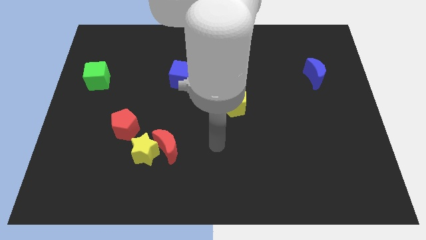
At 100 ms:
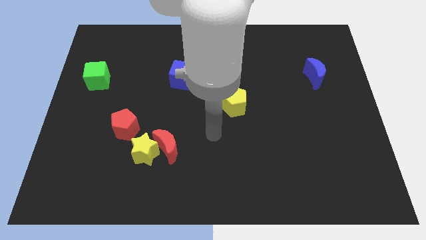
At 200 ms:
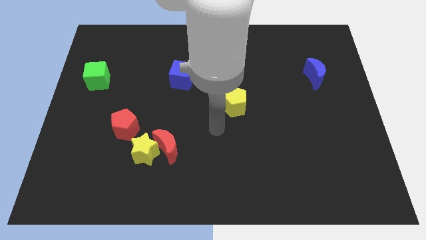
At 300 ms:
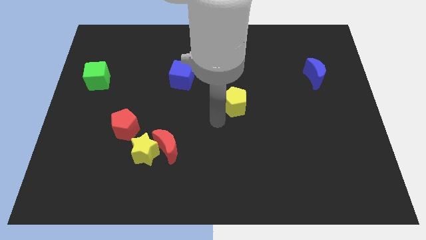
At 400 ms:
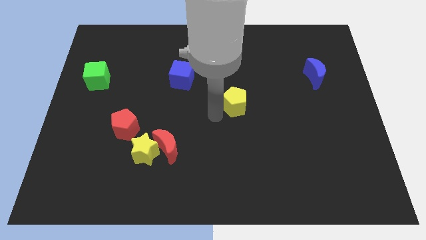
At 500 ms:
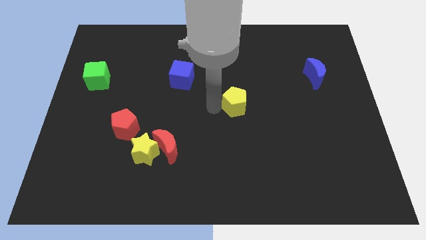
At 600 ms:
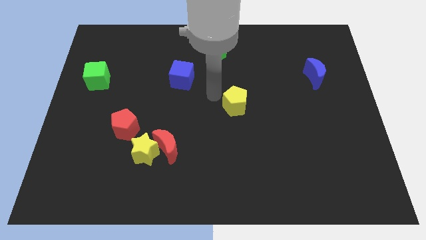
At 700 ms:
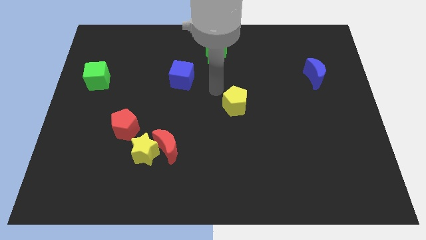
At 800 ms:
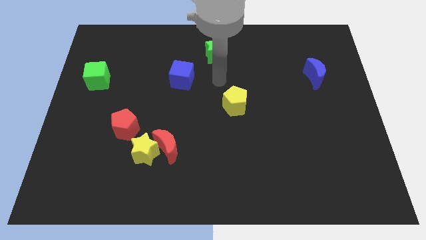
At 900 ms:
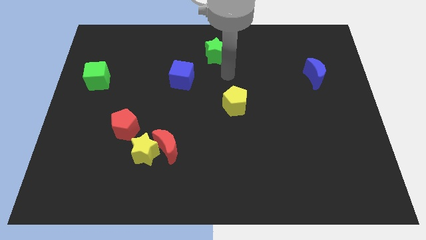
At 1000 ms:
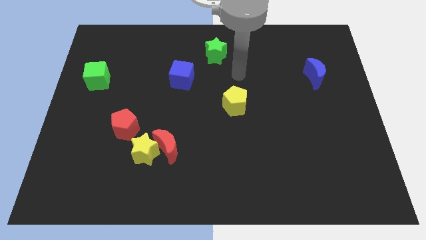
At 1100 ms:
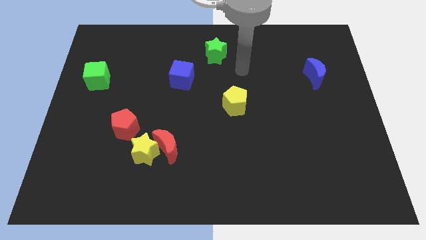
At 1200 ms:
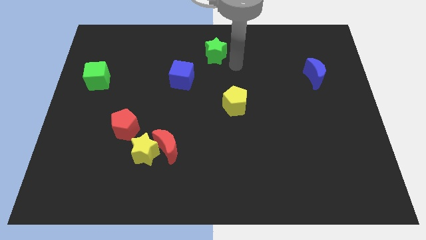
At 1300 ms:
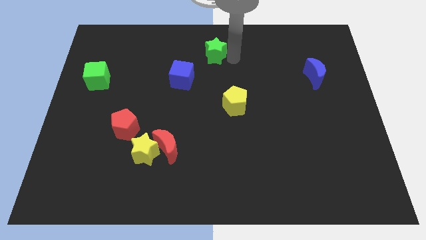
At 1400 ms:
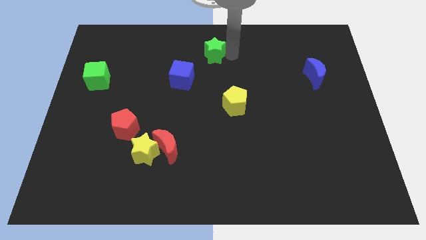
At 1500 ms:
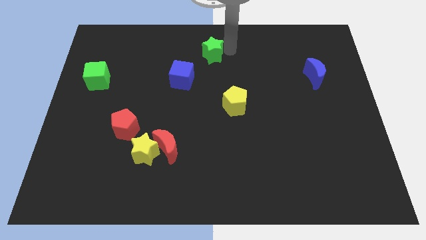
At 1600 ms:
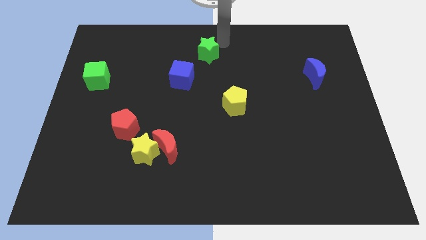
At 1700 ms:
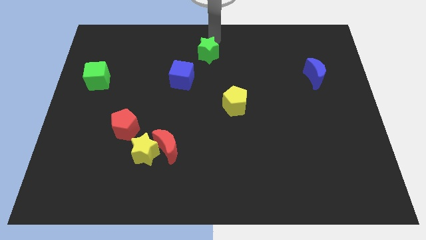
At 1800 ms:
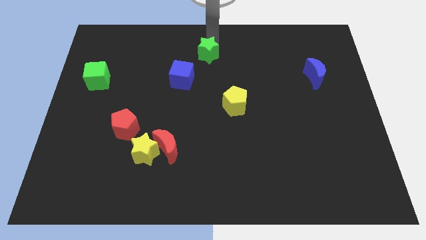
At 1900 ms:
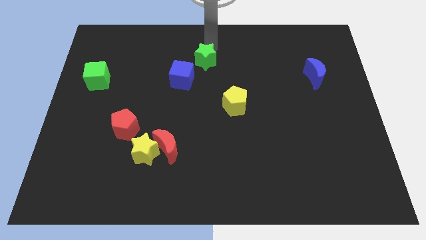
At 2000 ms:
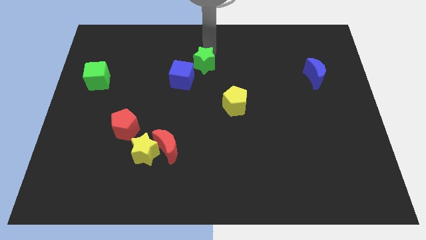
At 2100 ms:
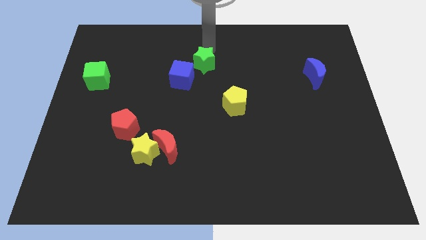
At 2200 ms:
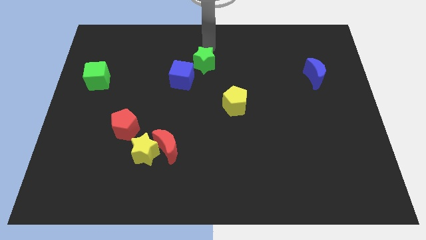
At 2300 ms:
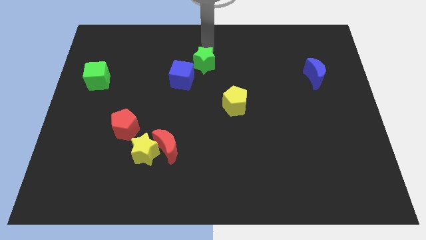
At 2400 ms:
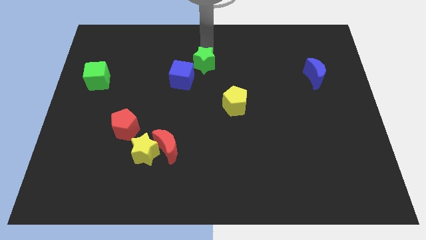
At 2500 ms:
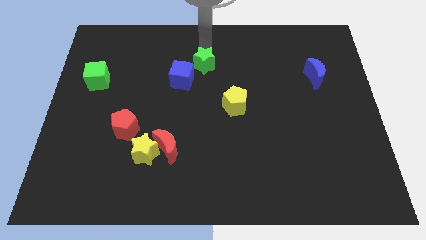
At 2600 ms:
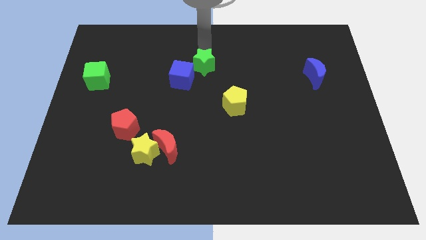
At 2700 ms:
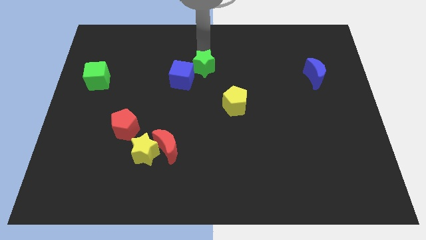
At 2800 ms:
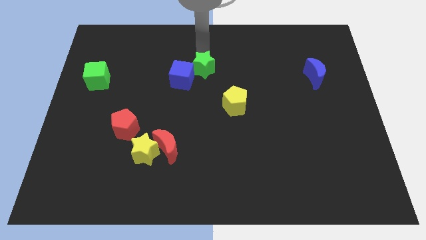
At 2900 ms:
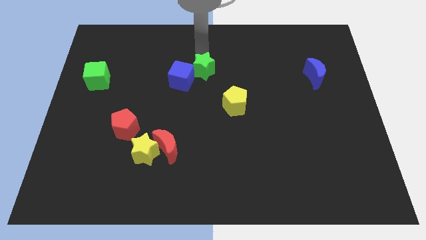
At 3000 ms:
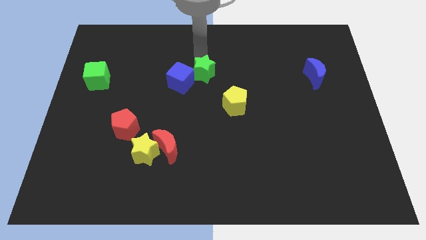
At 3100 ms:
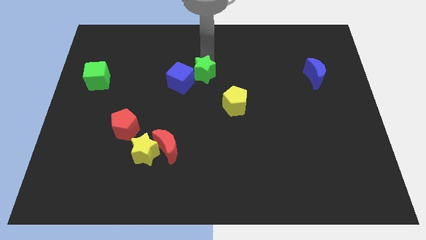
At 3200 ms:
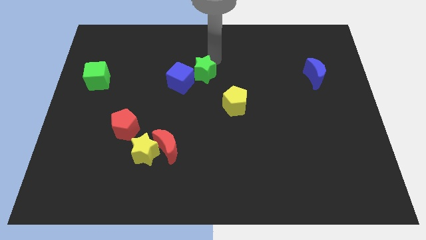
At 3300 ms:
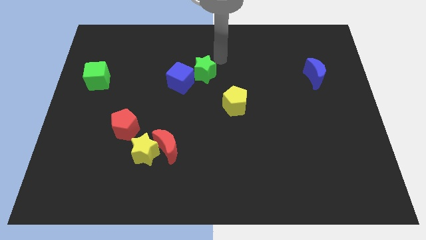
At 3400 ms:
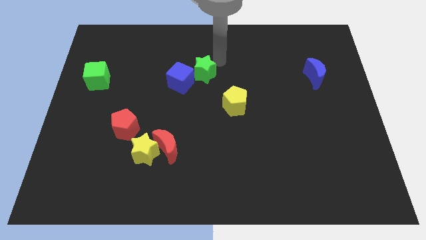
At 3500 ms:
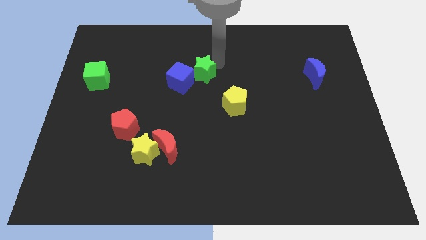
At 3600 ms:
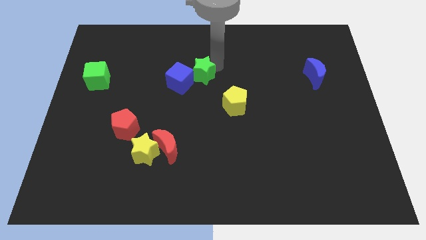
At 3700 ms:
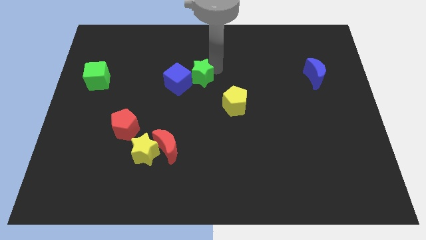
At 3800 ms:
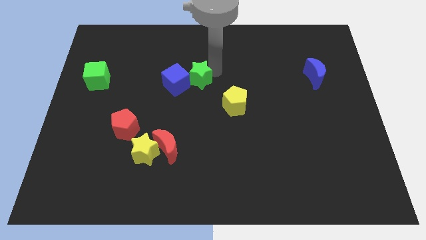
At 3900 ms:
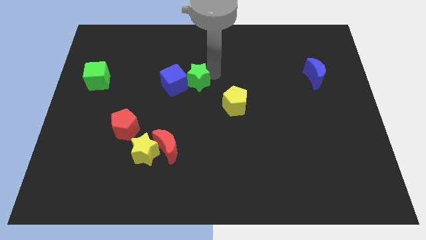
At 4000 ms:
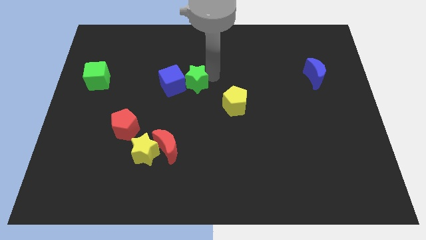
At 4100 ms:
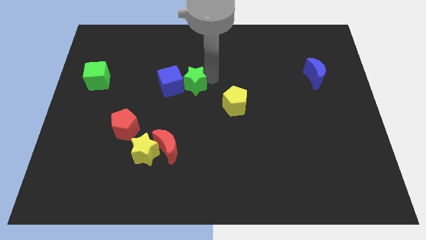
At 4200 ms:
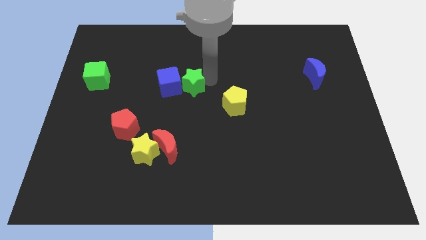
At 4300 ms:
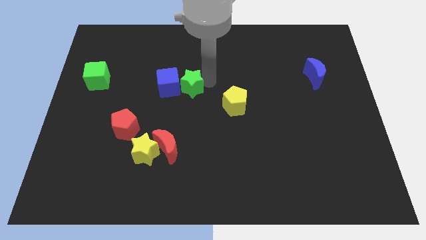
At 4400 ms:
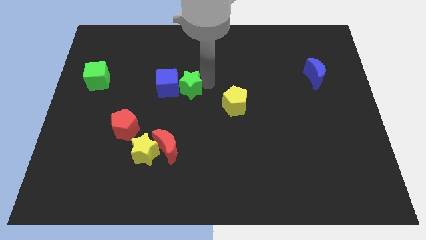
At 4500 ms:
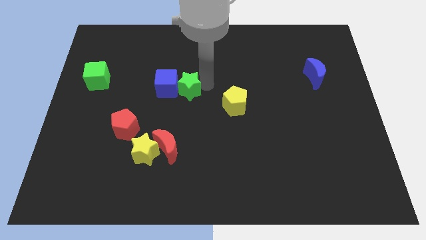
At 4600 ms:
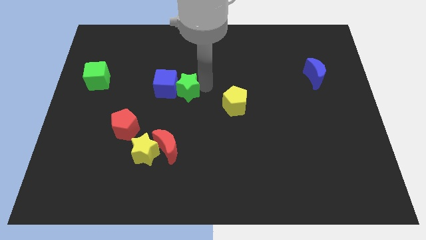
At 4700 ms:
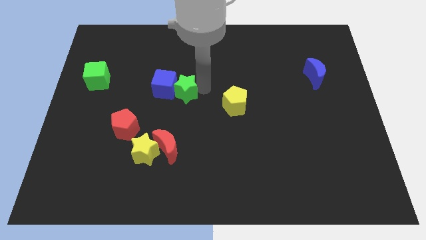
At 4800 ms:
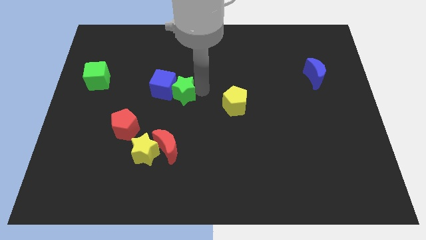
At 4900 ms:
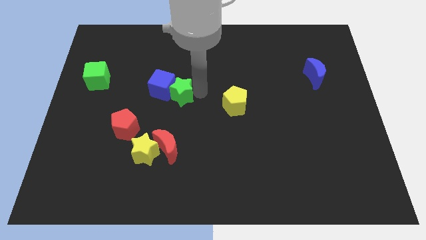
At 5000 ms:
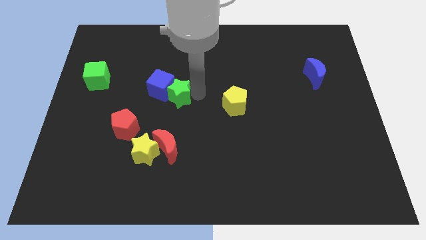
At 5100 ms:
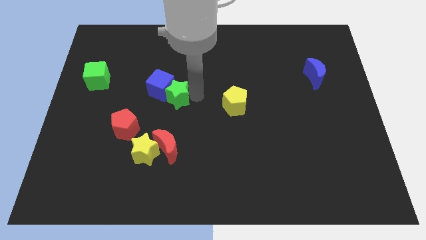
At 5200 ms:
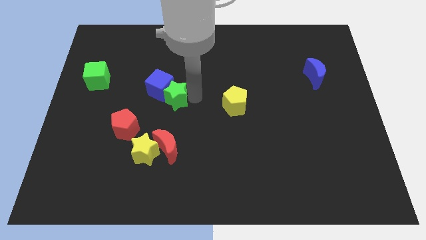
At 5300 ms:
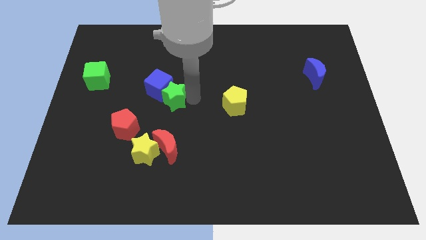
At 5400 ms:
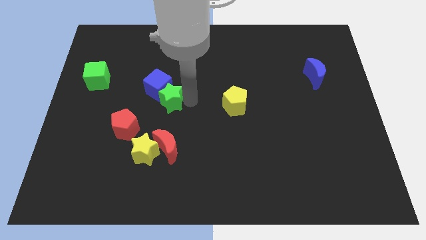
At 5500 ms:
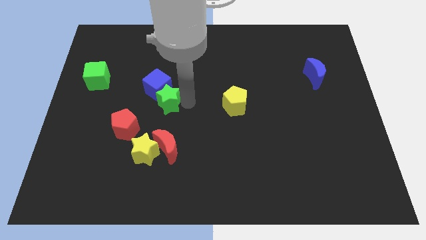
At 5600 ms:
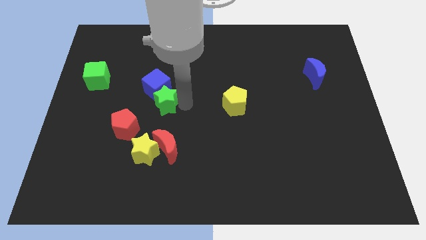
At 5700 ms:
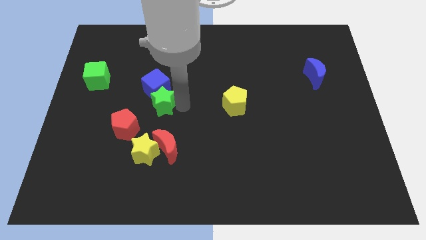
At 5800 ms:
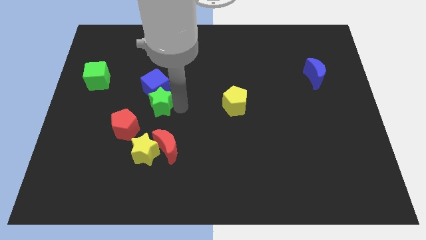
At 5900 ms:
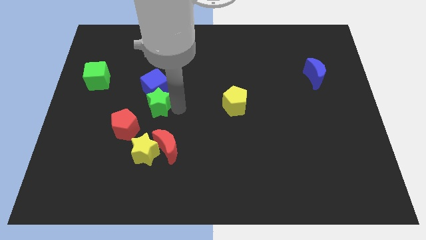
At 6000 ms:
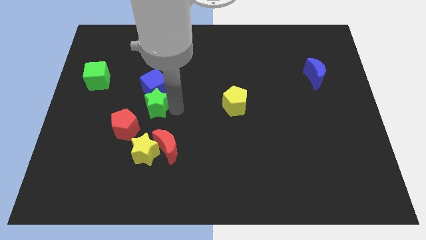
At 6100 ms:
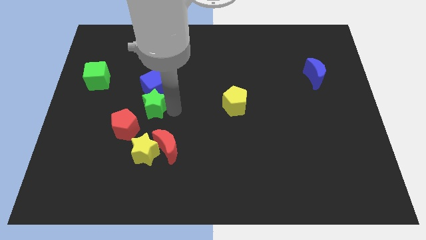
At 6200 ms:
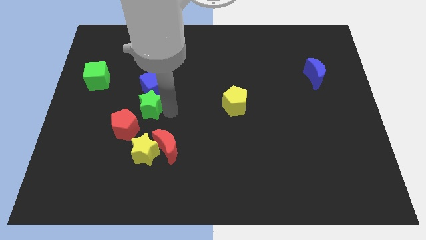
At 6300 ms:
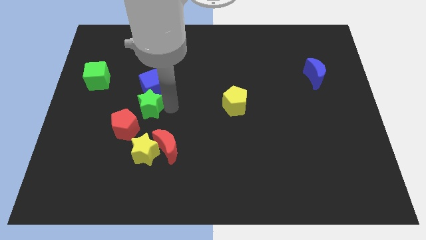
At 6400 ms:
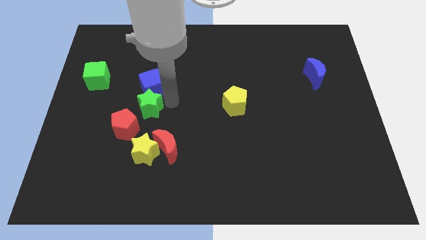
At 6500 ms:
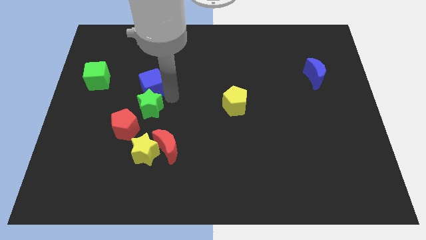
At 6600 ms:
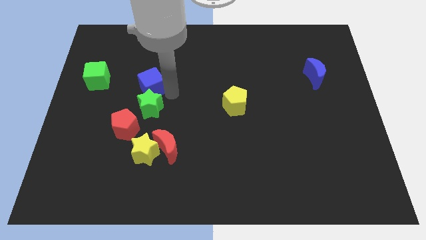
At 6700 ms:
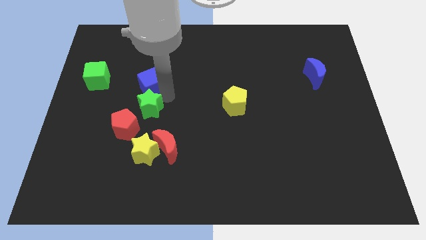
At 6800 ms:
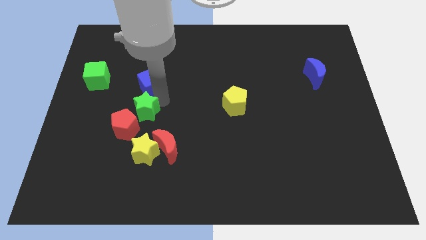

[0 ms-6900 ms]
push the green star close to the red pentagon

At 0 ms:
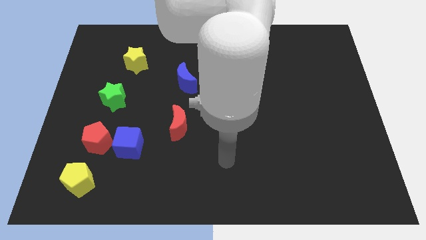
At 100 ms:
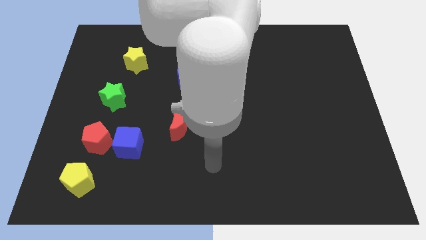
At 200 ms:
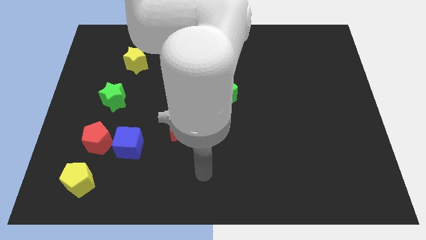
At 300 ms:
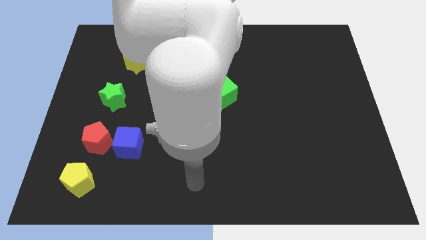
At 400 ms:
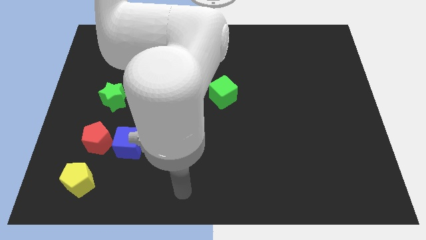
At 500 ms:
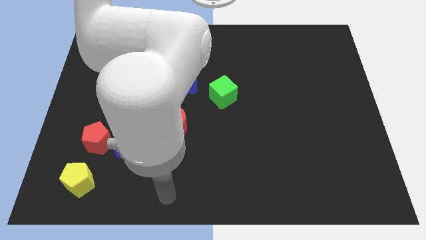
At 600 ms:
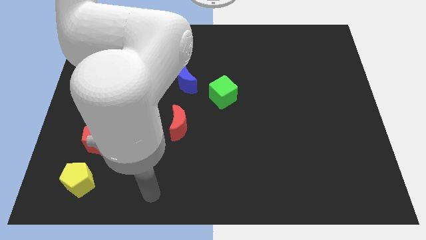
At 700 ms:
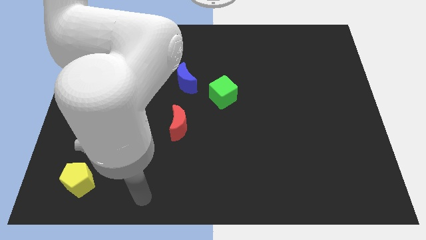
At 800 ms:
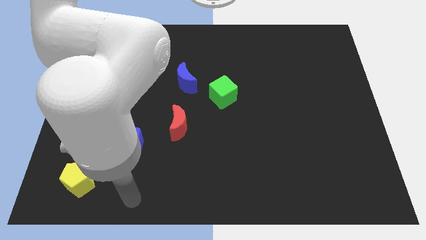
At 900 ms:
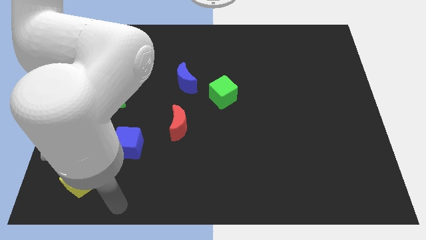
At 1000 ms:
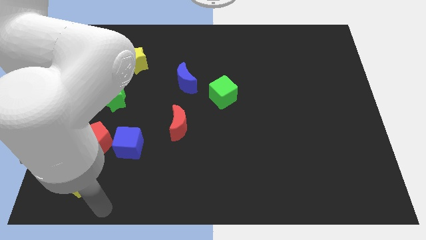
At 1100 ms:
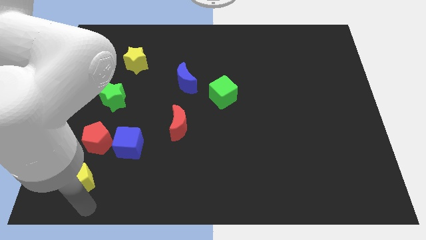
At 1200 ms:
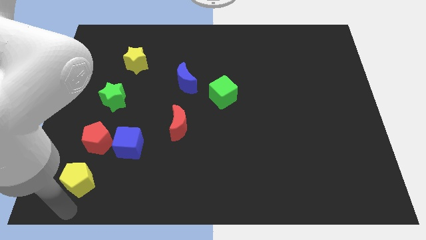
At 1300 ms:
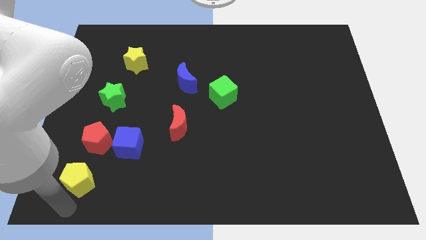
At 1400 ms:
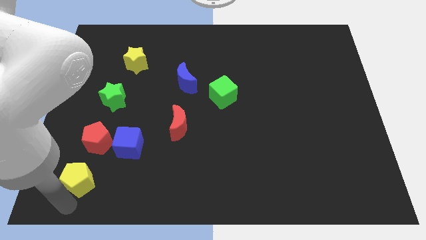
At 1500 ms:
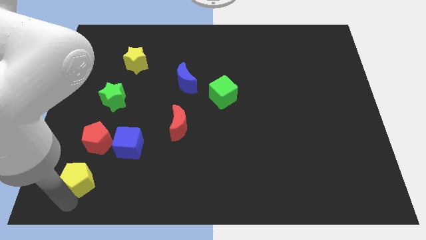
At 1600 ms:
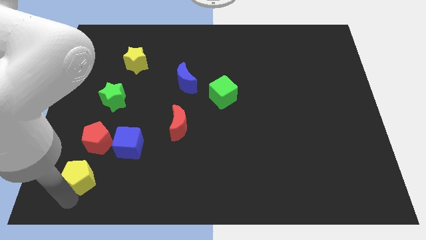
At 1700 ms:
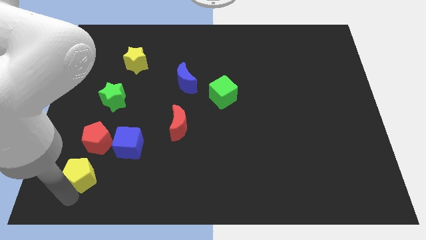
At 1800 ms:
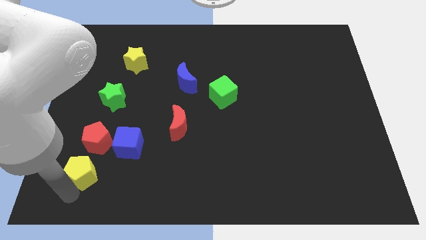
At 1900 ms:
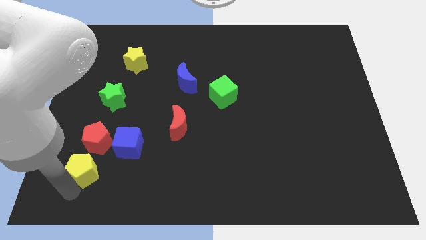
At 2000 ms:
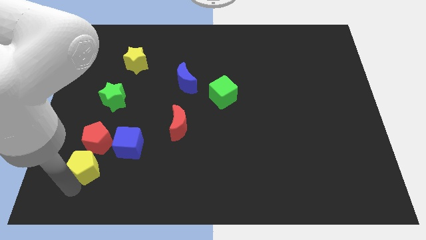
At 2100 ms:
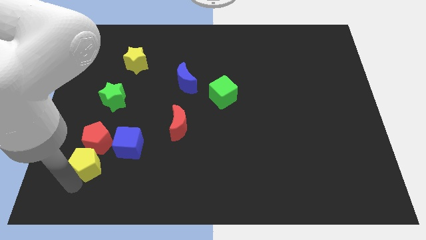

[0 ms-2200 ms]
move the yellow pentagon to the red pentagon
